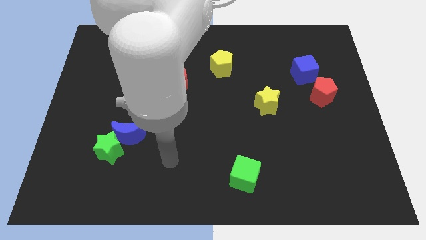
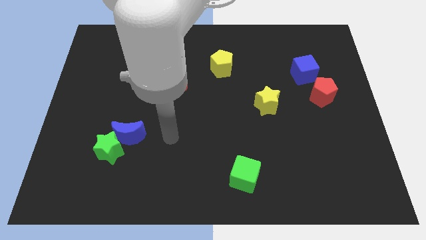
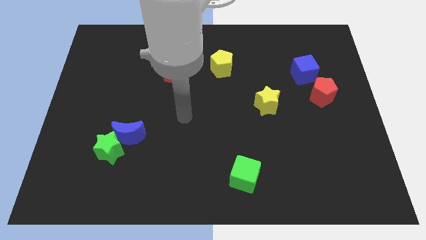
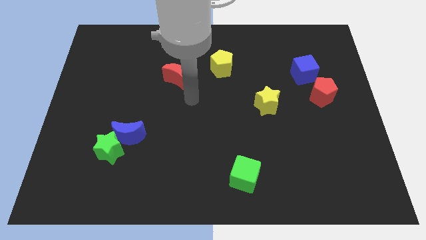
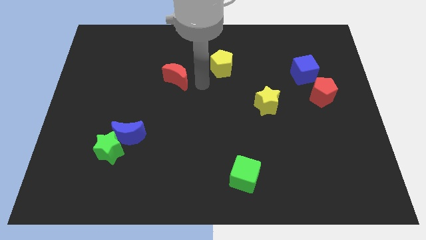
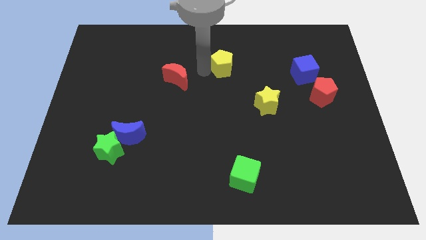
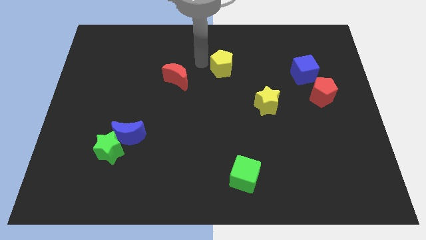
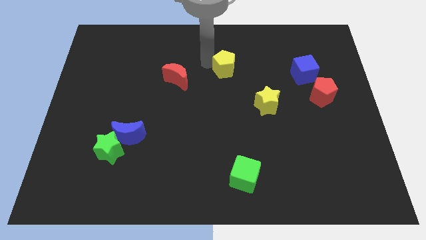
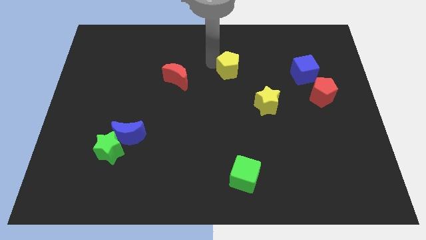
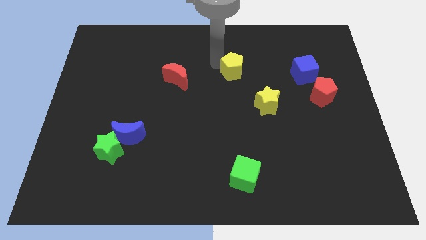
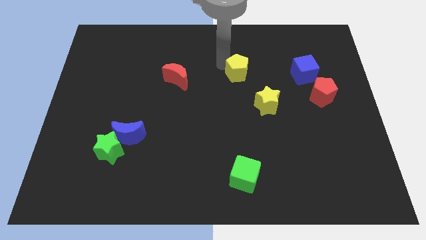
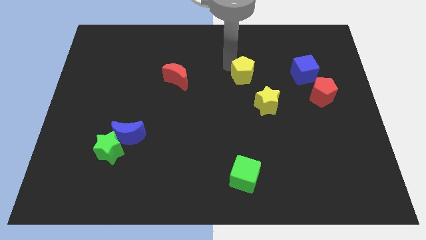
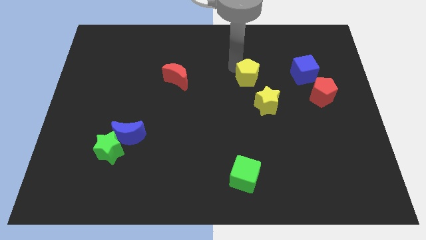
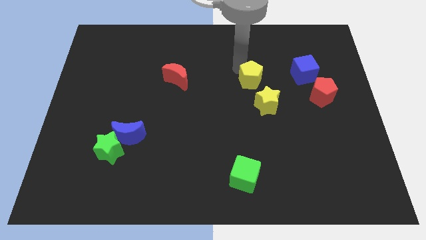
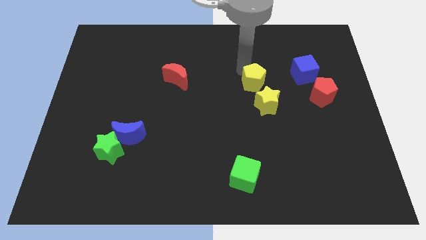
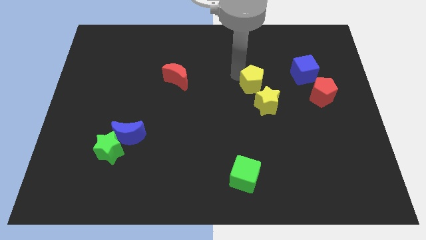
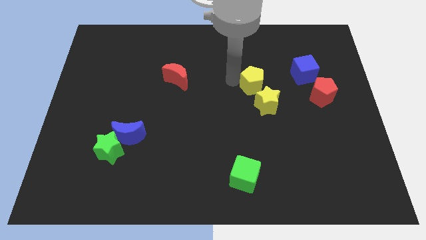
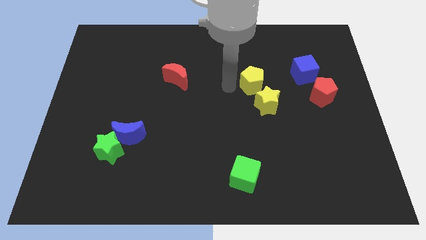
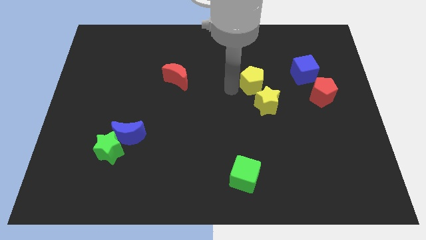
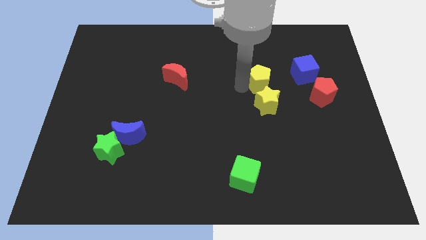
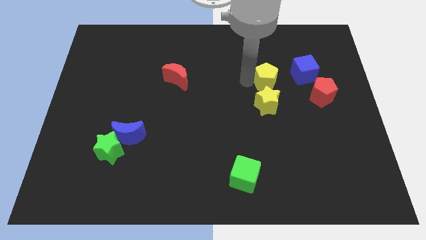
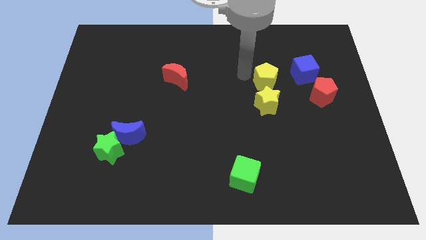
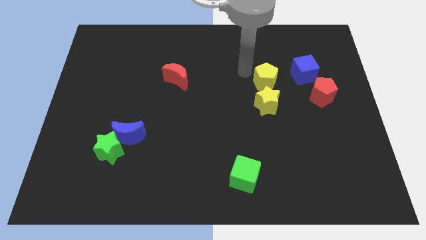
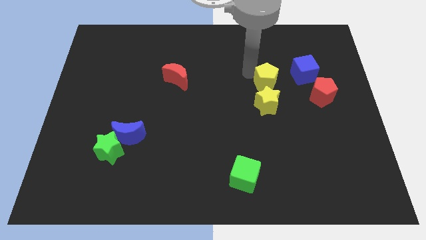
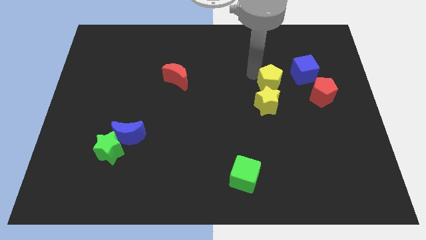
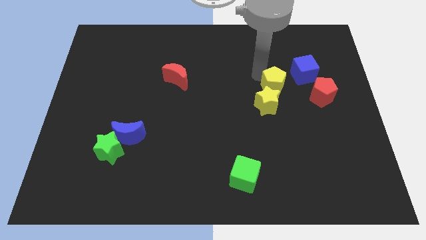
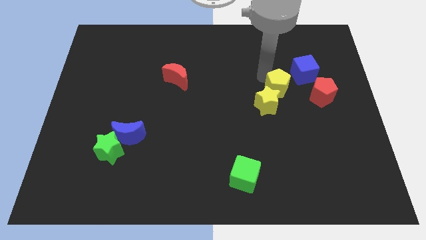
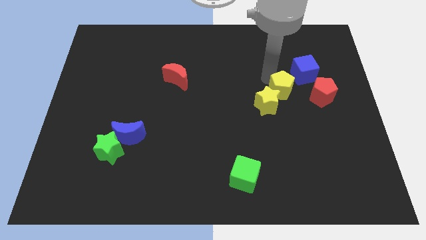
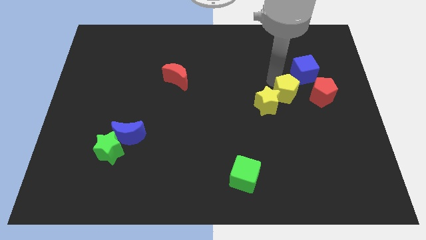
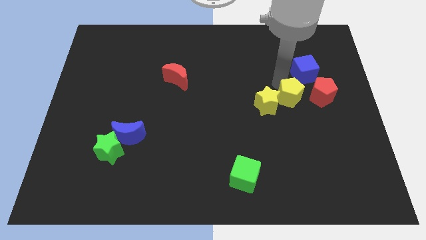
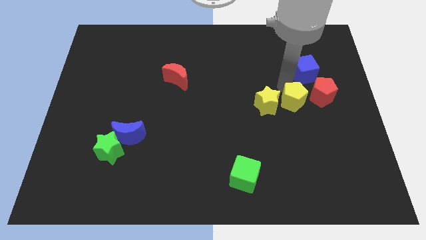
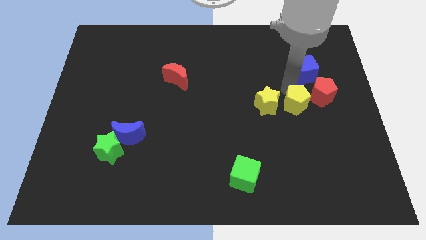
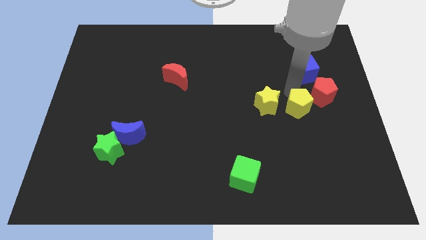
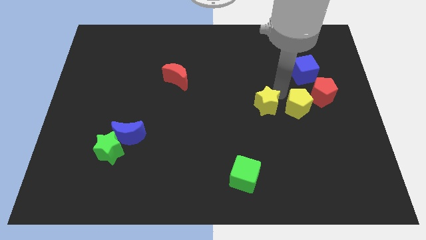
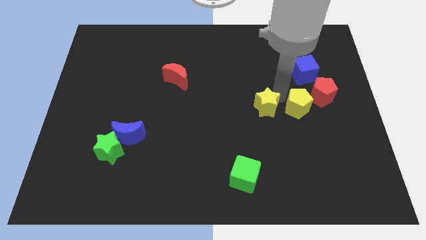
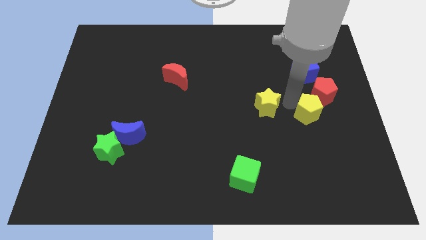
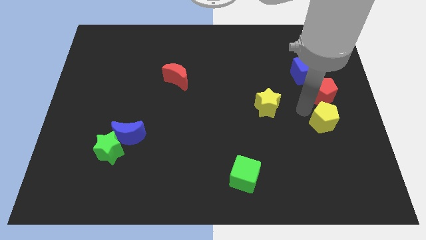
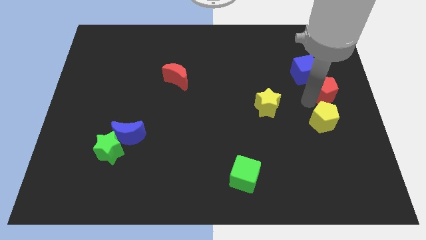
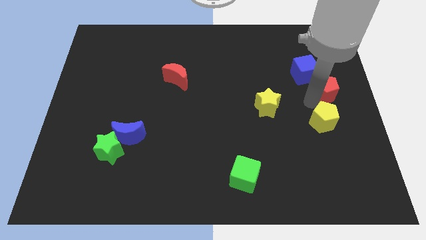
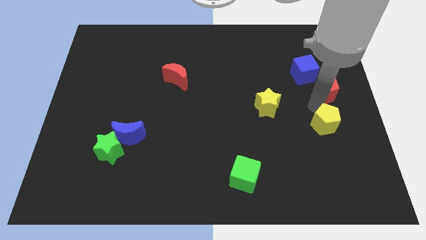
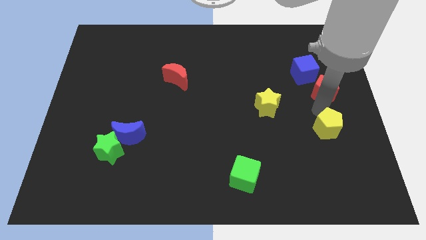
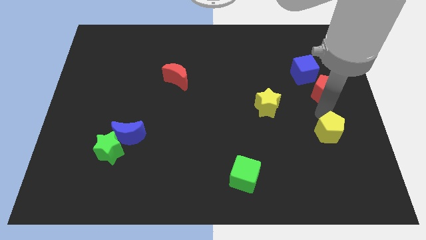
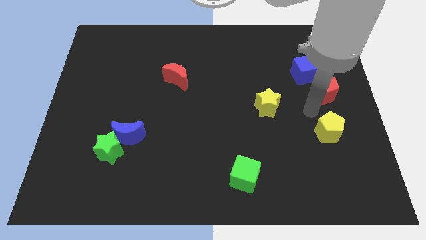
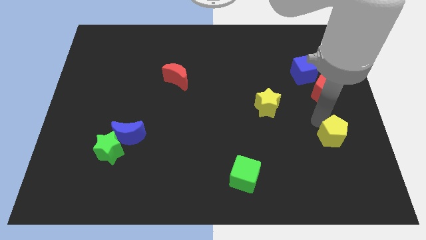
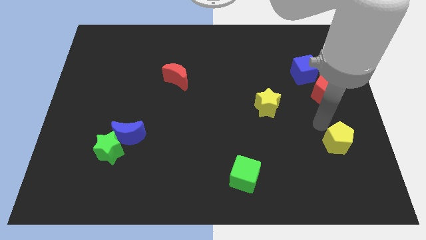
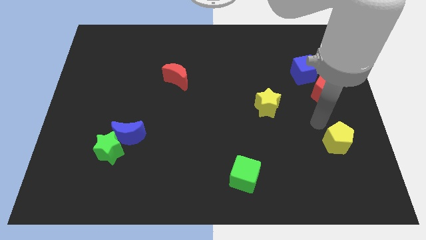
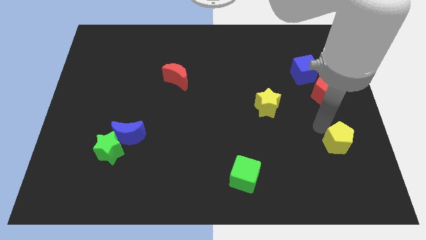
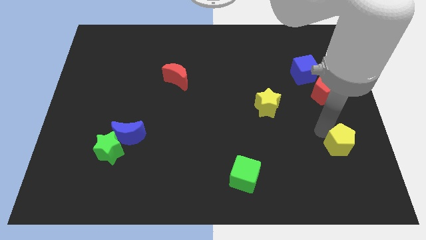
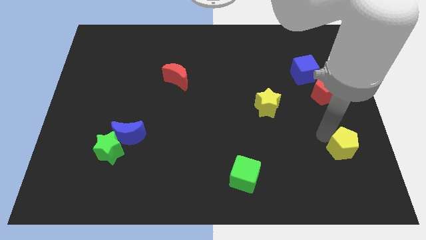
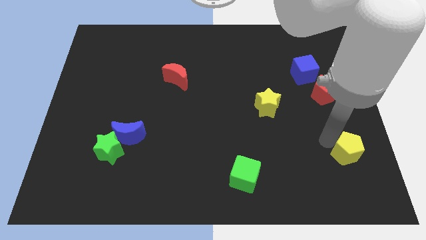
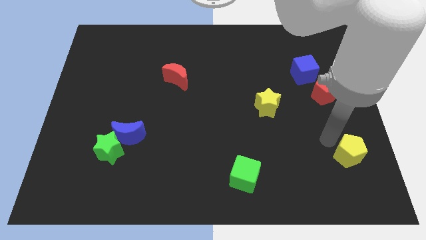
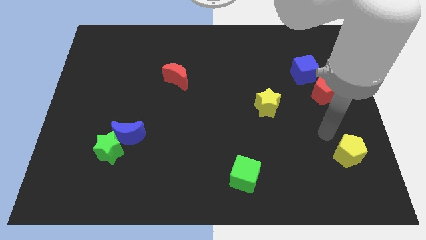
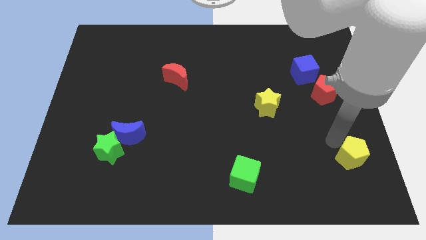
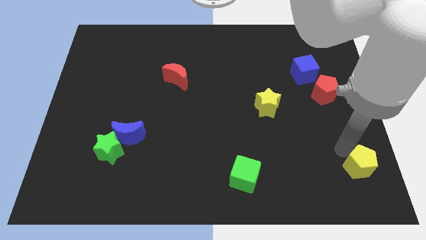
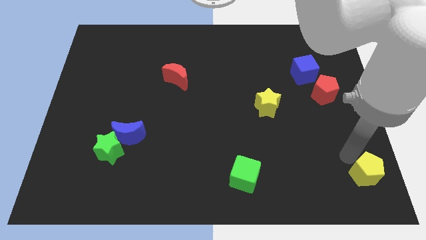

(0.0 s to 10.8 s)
push the yellow pentagon to the lower right corner

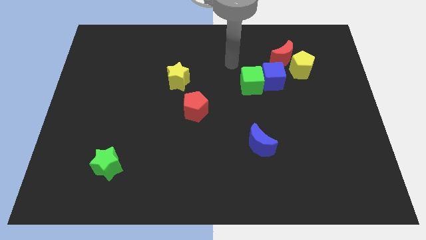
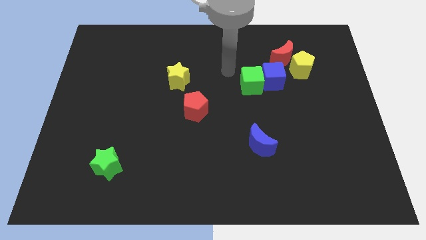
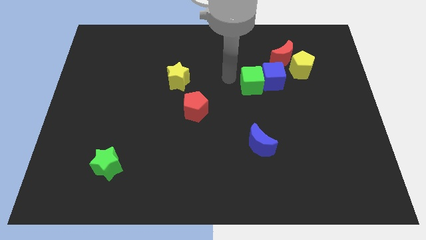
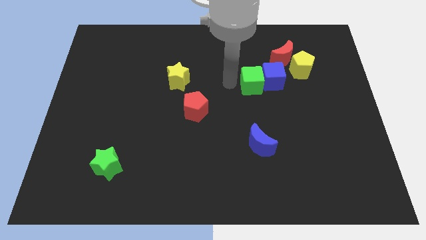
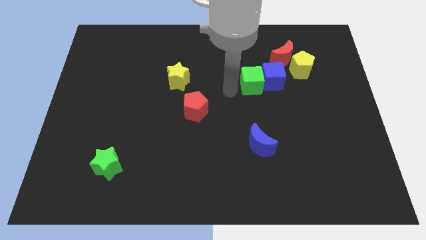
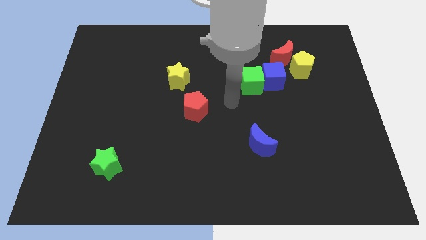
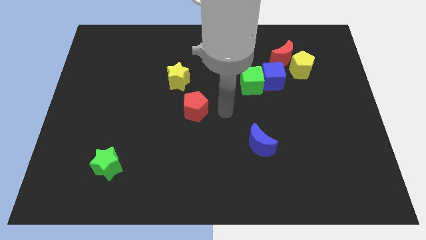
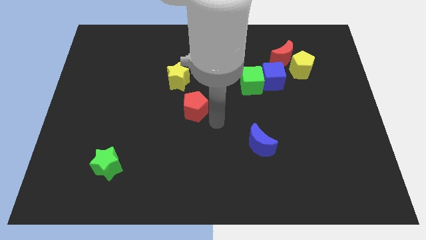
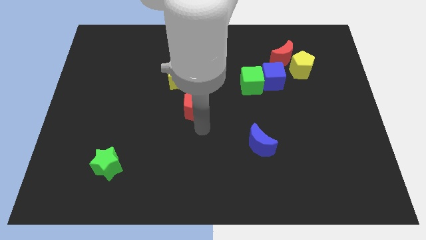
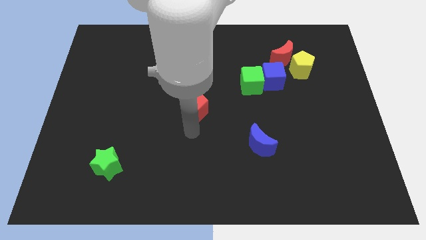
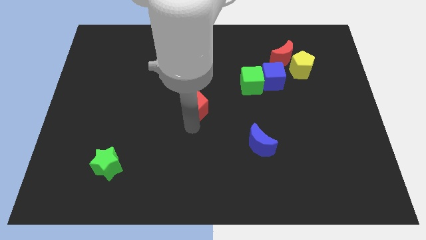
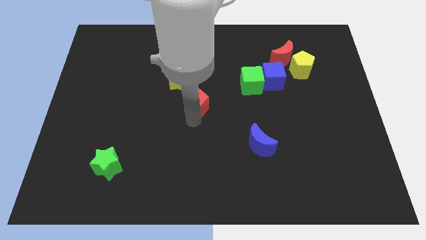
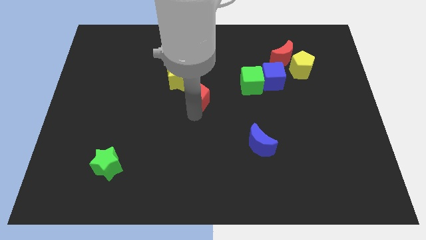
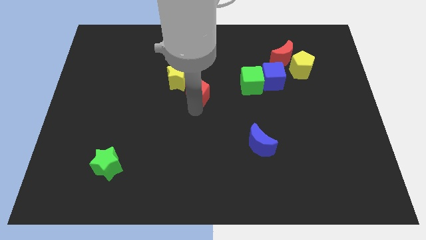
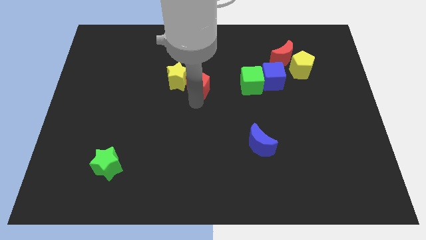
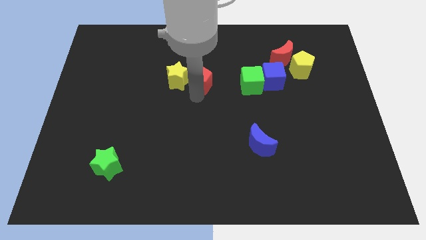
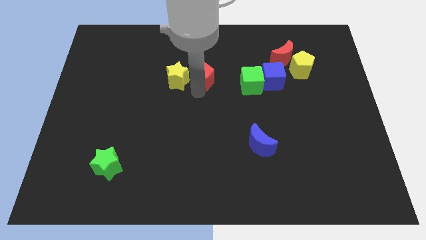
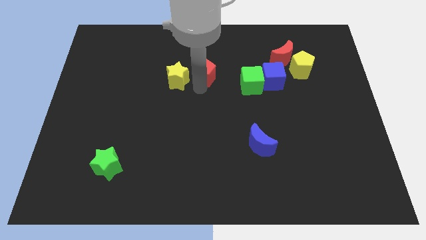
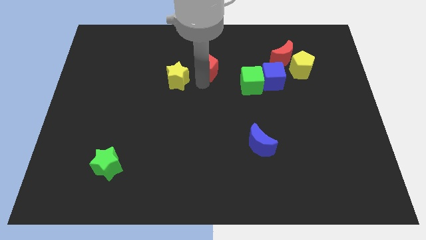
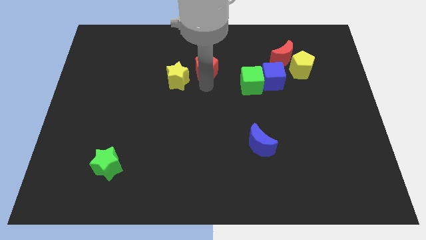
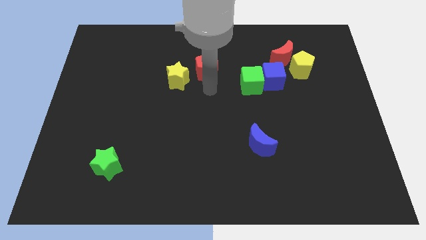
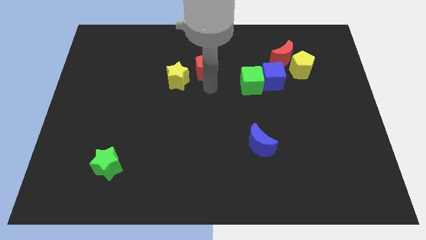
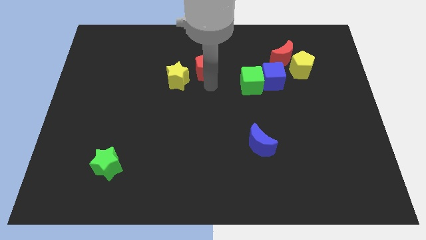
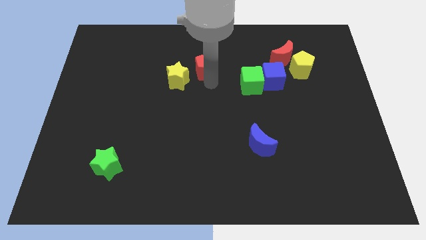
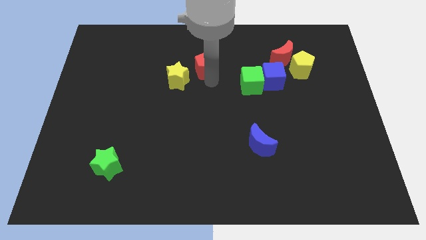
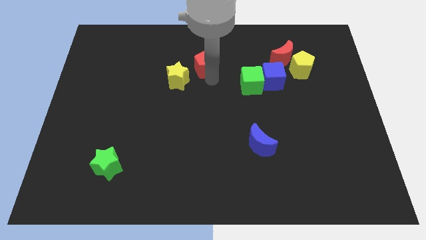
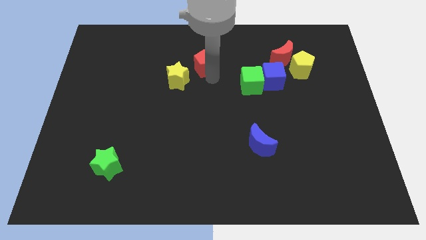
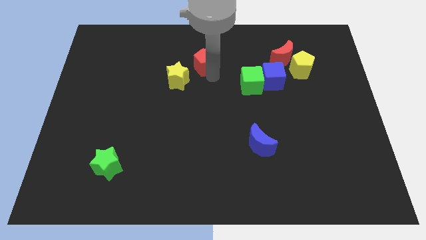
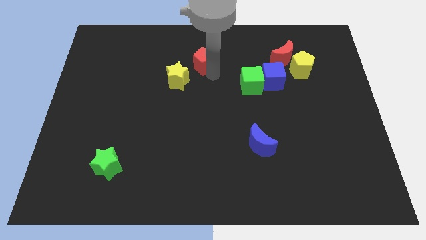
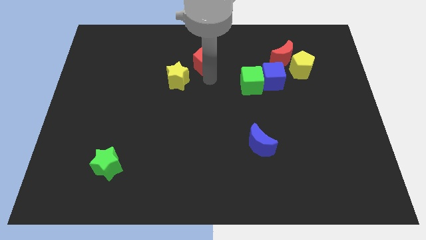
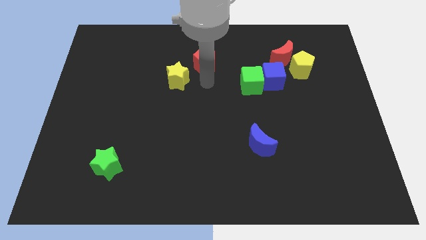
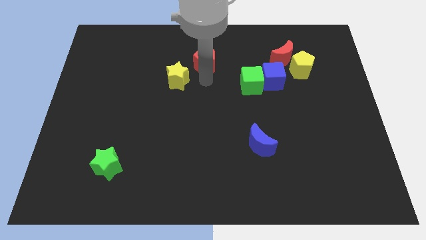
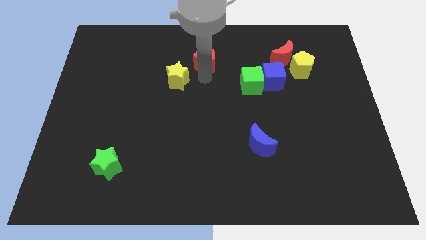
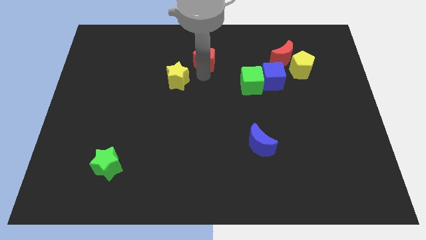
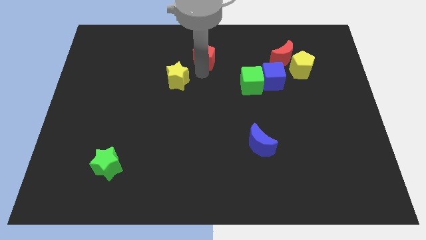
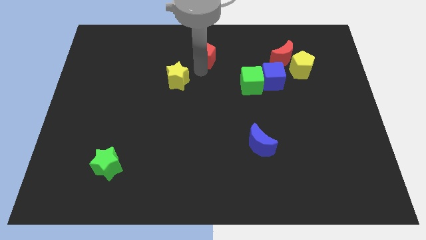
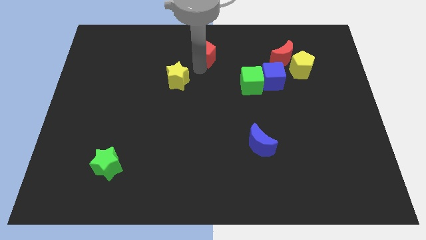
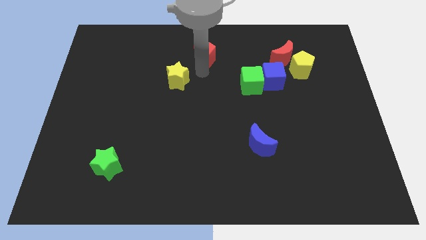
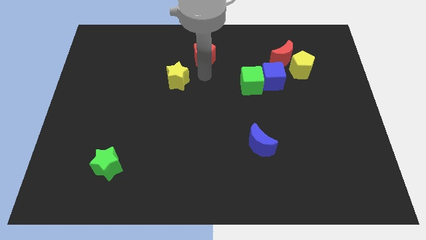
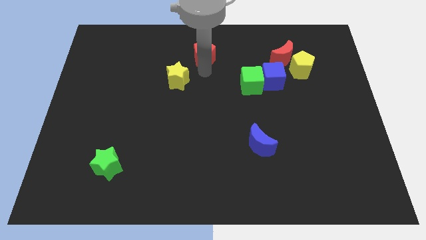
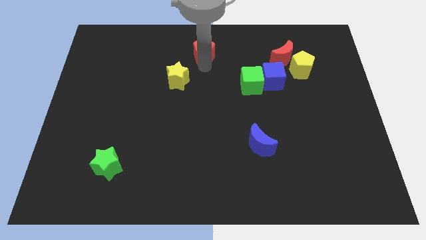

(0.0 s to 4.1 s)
move the red pentagon to the towards your base
